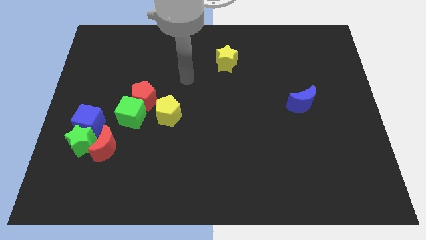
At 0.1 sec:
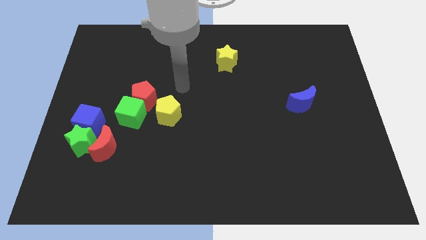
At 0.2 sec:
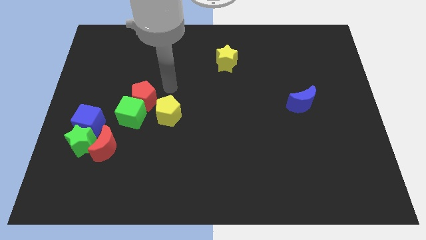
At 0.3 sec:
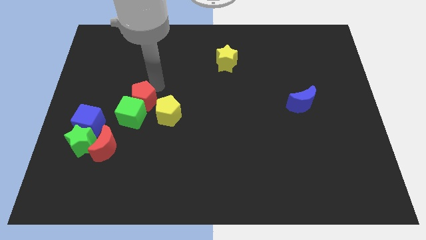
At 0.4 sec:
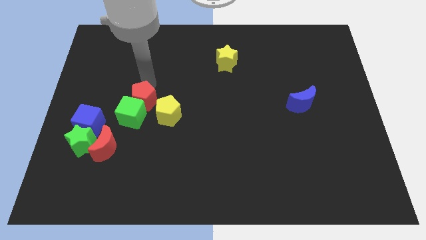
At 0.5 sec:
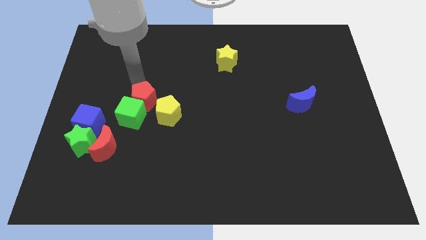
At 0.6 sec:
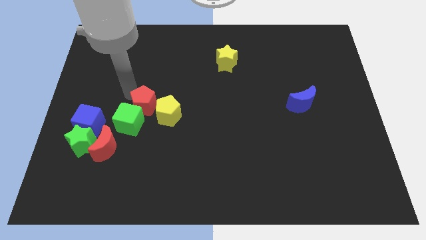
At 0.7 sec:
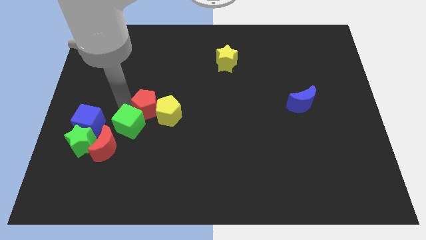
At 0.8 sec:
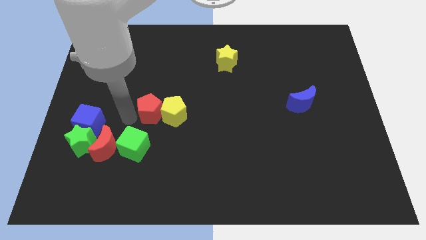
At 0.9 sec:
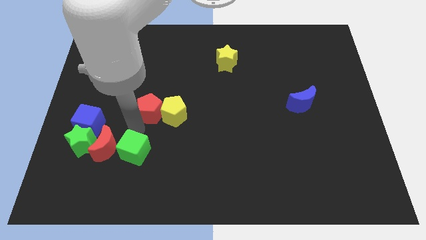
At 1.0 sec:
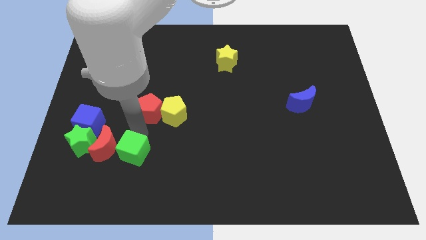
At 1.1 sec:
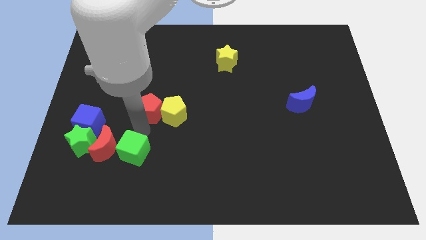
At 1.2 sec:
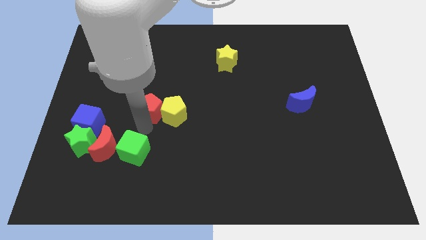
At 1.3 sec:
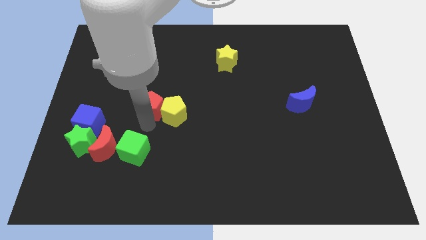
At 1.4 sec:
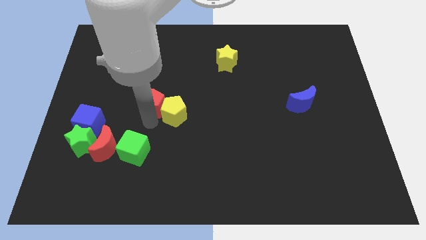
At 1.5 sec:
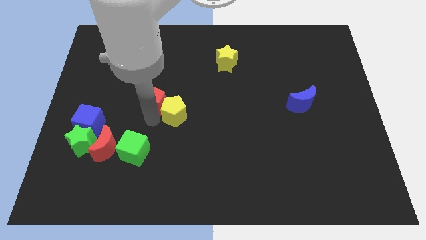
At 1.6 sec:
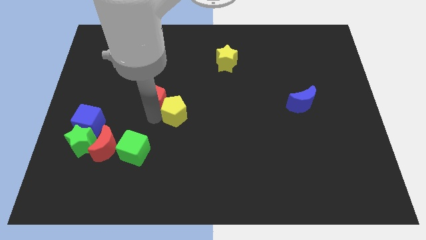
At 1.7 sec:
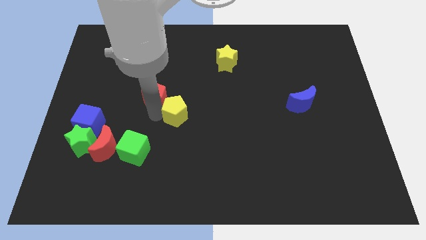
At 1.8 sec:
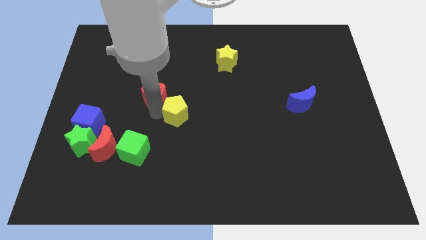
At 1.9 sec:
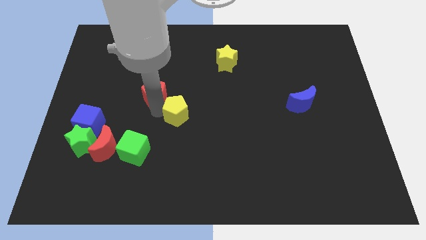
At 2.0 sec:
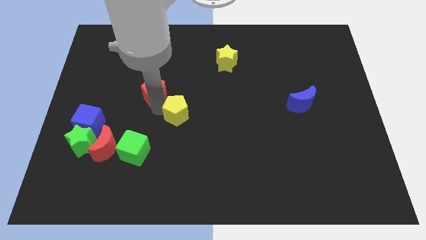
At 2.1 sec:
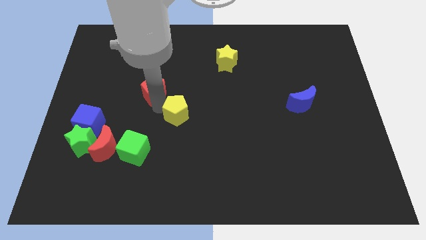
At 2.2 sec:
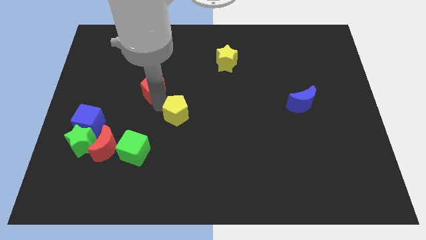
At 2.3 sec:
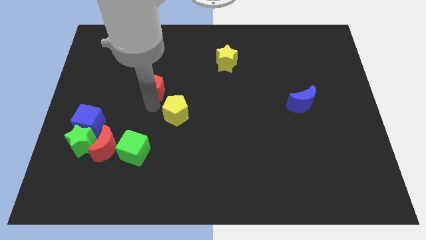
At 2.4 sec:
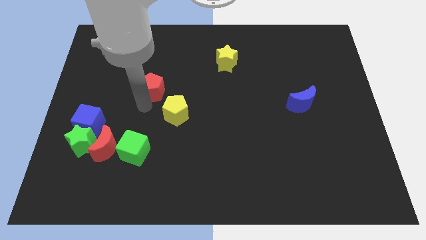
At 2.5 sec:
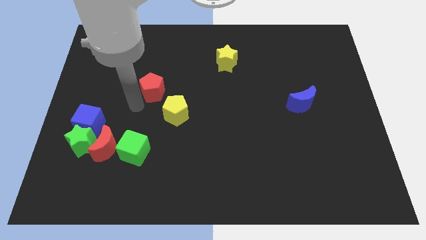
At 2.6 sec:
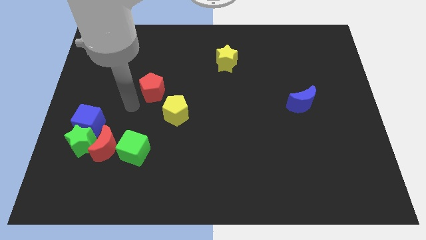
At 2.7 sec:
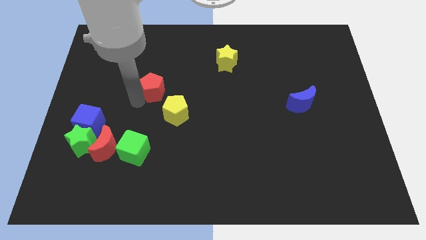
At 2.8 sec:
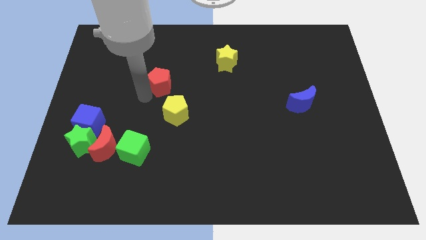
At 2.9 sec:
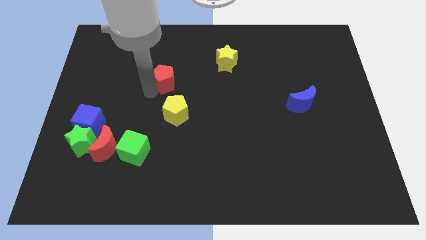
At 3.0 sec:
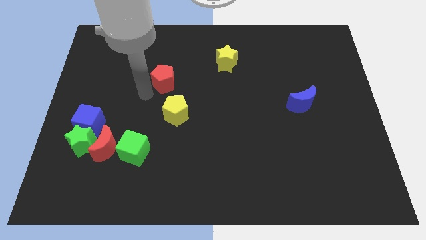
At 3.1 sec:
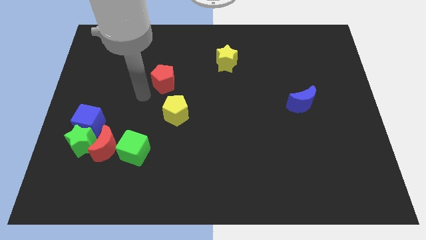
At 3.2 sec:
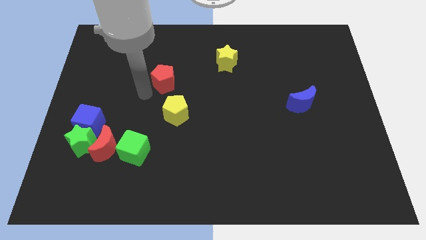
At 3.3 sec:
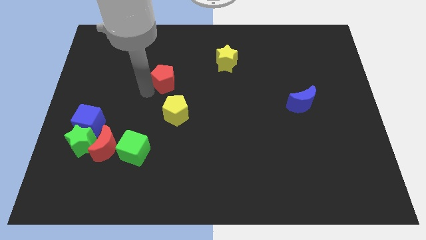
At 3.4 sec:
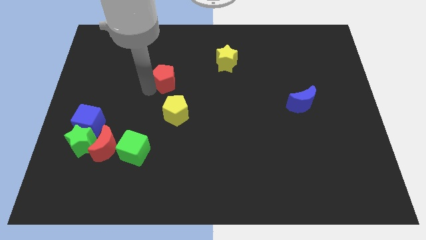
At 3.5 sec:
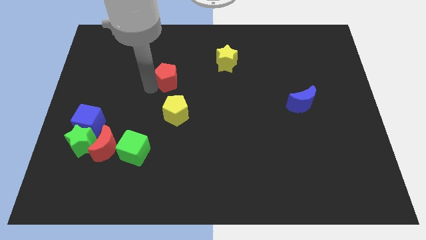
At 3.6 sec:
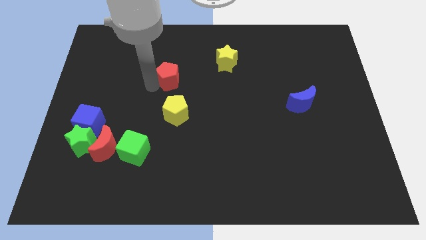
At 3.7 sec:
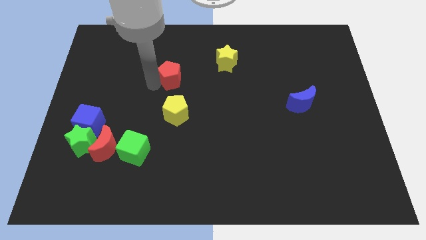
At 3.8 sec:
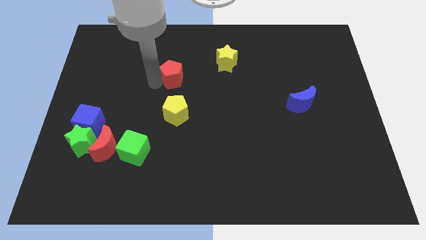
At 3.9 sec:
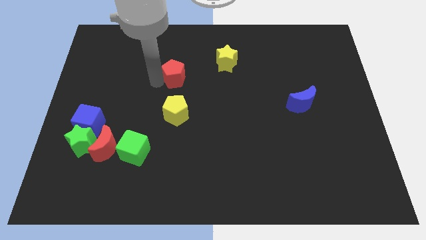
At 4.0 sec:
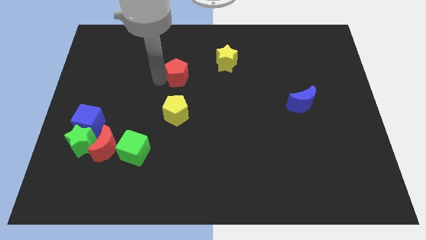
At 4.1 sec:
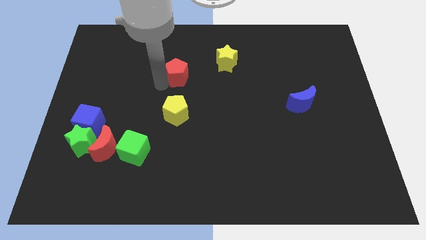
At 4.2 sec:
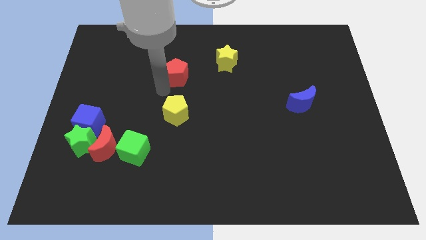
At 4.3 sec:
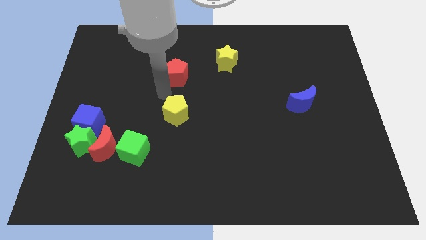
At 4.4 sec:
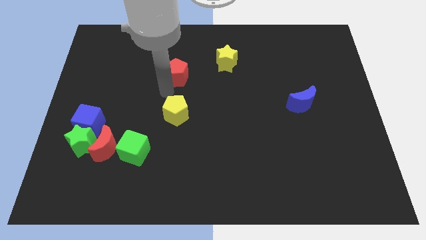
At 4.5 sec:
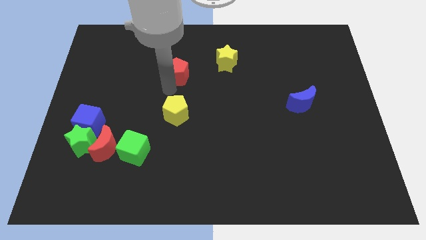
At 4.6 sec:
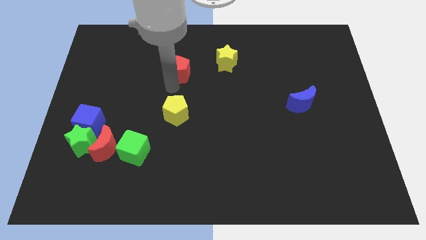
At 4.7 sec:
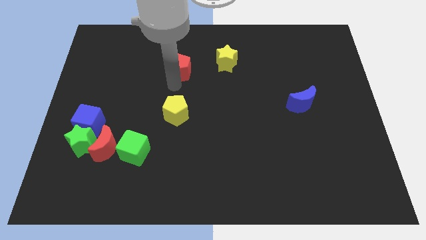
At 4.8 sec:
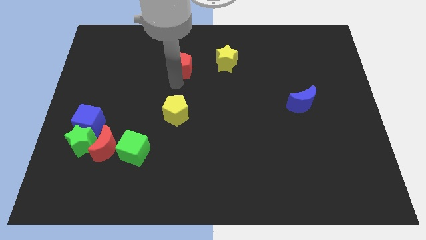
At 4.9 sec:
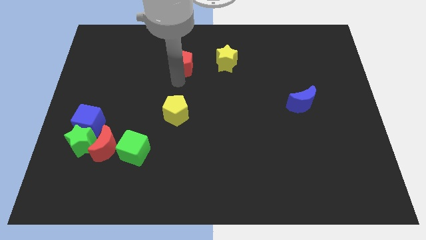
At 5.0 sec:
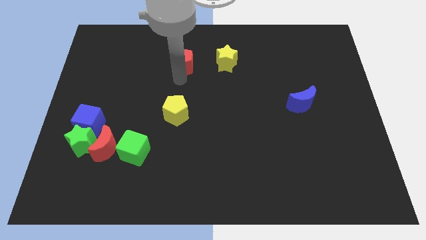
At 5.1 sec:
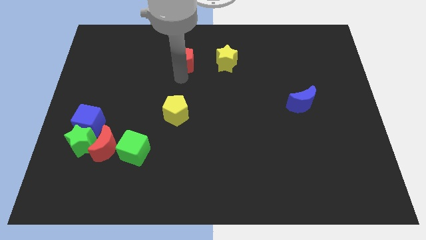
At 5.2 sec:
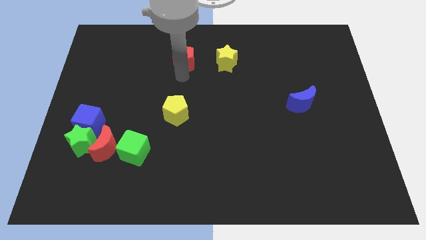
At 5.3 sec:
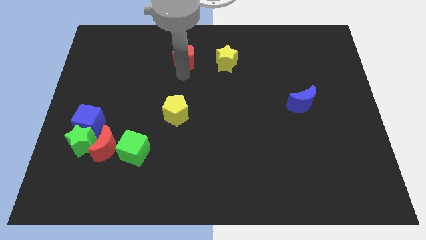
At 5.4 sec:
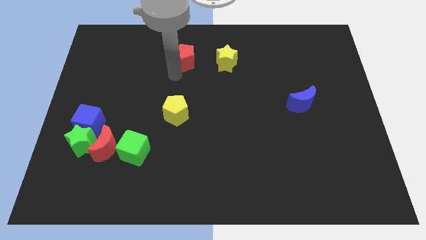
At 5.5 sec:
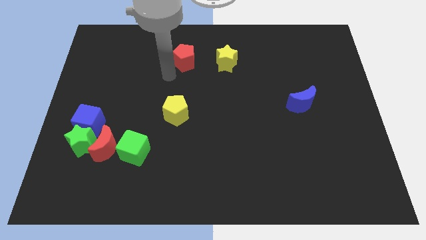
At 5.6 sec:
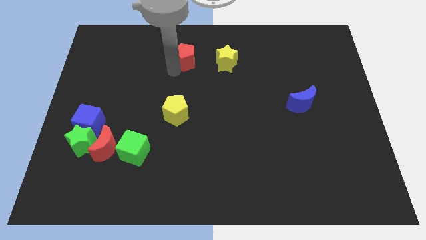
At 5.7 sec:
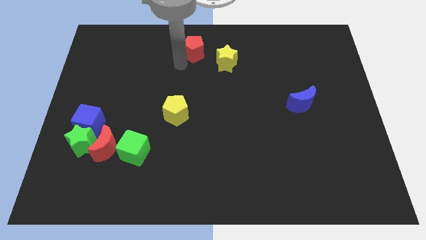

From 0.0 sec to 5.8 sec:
push the red pentagon to the towards your base

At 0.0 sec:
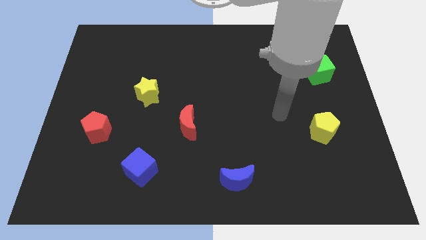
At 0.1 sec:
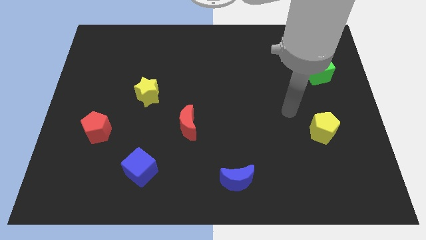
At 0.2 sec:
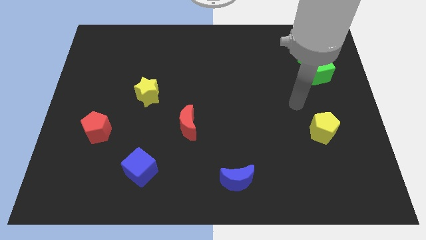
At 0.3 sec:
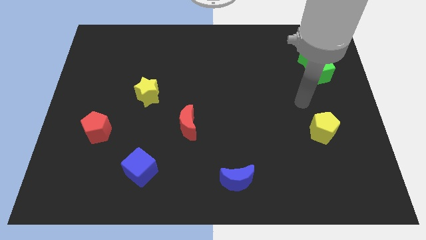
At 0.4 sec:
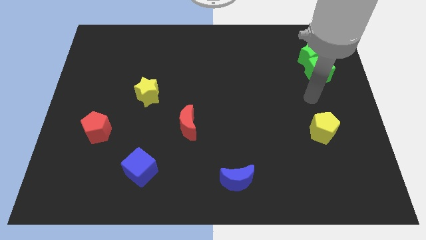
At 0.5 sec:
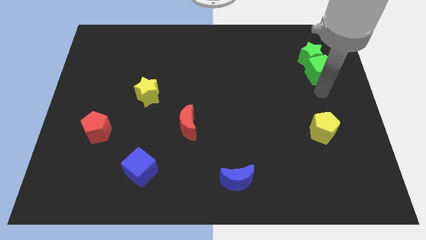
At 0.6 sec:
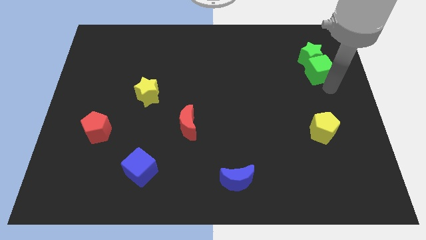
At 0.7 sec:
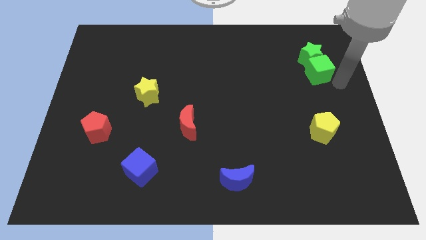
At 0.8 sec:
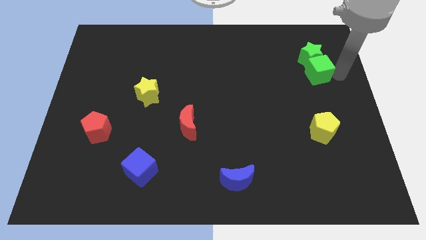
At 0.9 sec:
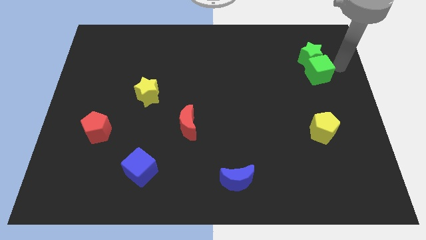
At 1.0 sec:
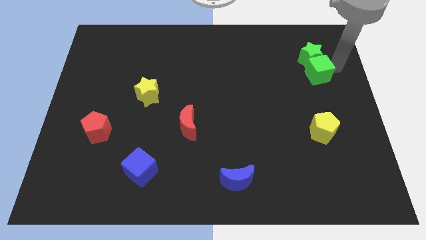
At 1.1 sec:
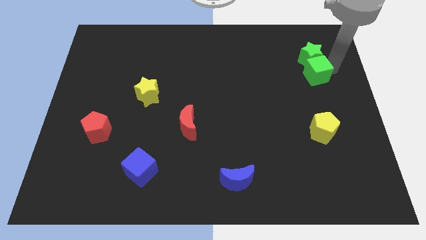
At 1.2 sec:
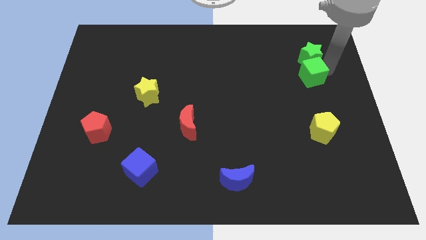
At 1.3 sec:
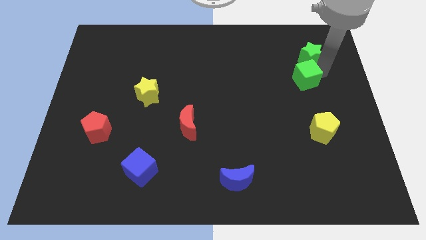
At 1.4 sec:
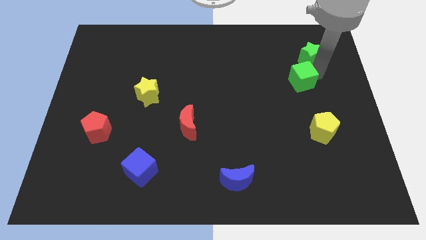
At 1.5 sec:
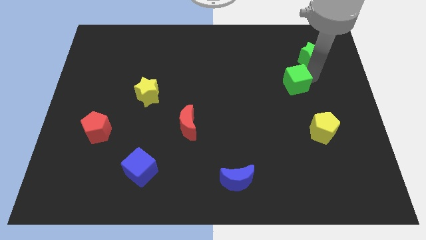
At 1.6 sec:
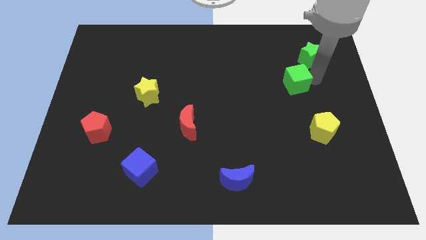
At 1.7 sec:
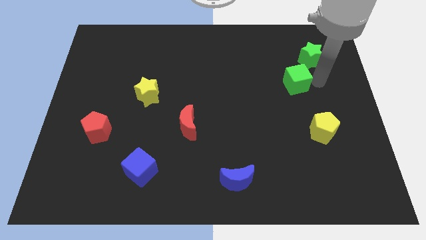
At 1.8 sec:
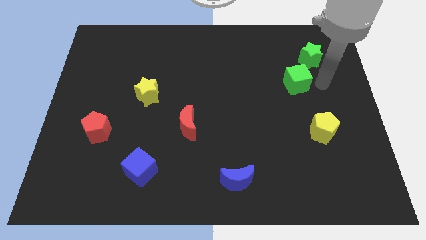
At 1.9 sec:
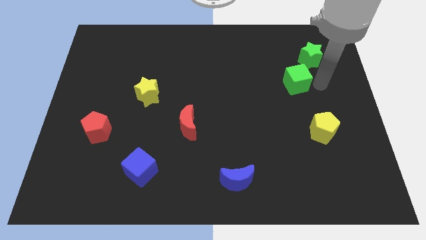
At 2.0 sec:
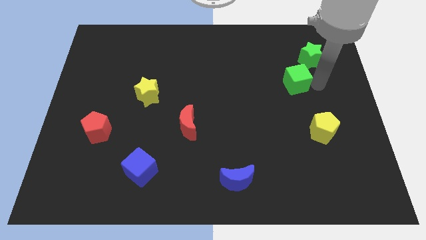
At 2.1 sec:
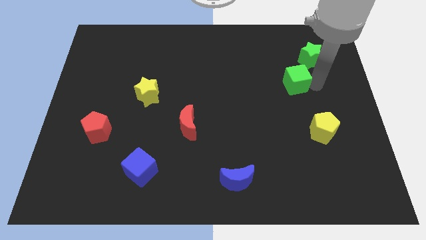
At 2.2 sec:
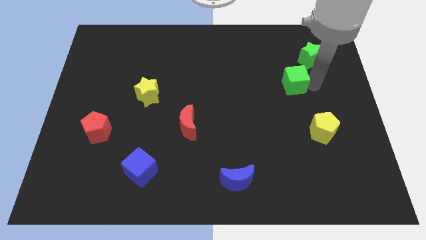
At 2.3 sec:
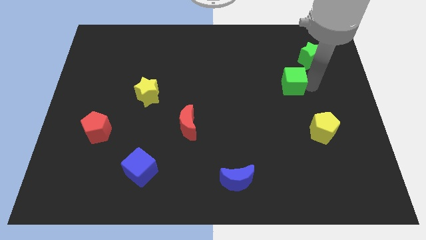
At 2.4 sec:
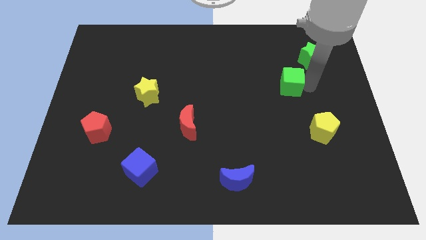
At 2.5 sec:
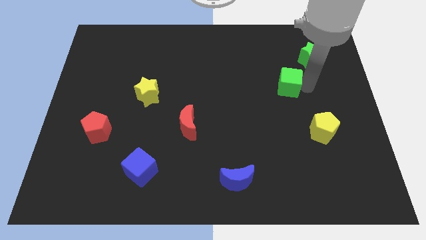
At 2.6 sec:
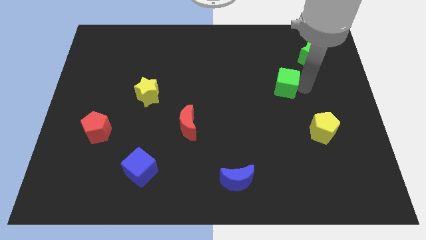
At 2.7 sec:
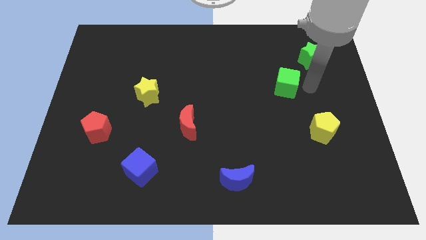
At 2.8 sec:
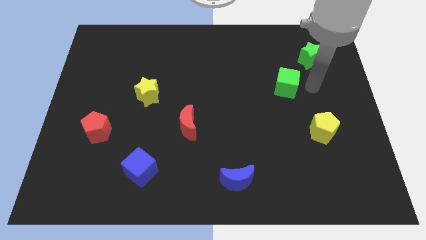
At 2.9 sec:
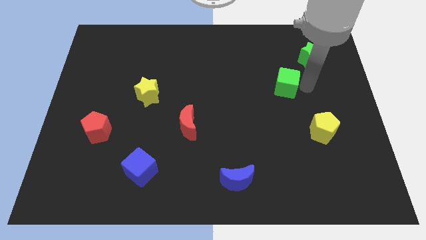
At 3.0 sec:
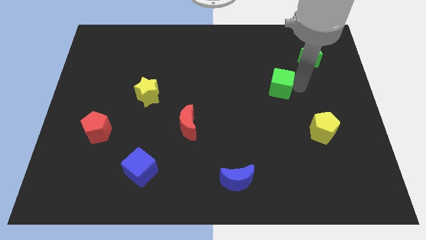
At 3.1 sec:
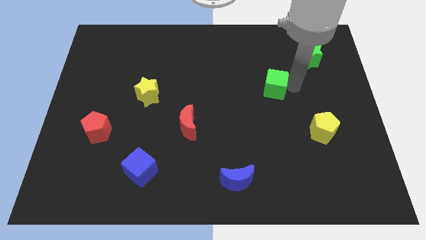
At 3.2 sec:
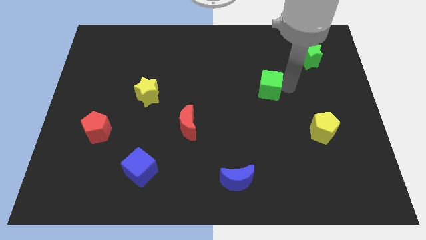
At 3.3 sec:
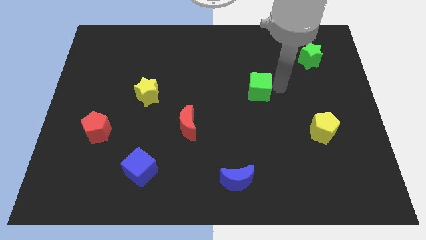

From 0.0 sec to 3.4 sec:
move the green cube to the middle of the board
